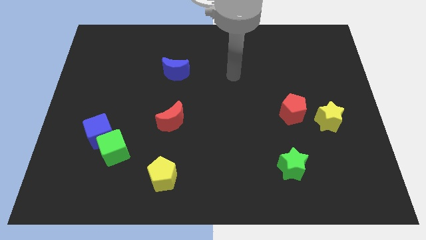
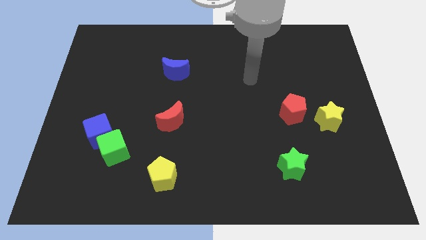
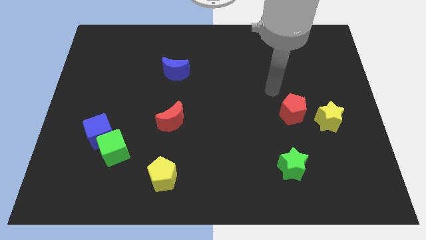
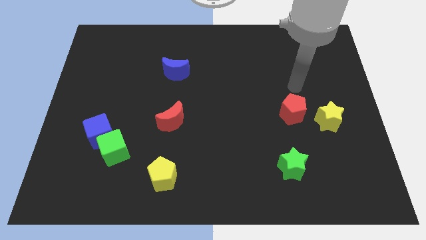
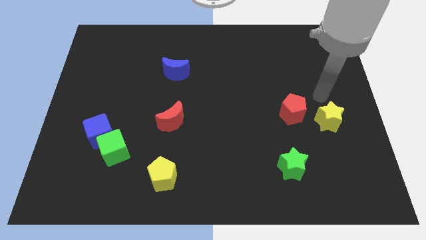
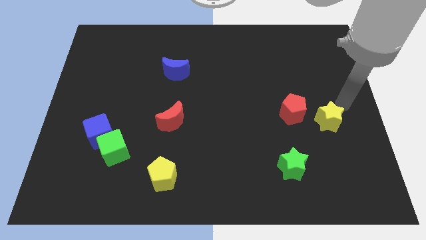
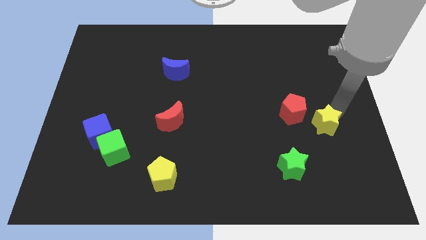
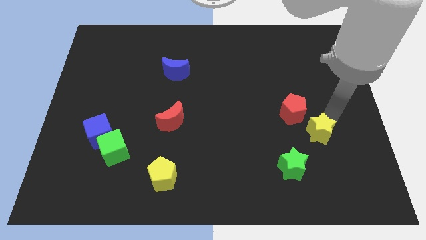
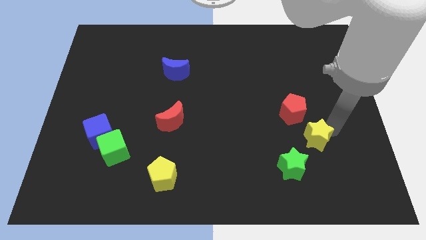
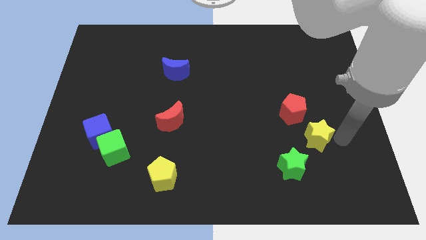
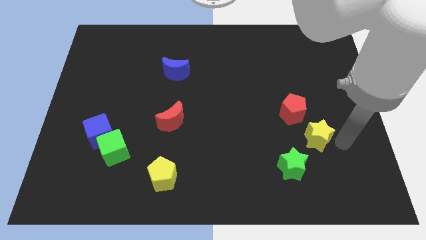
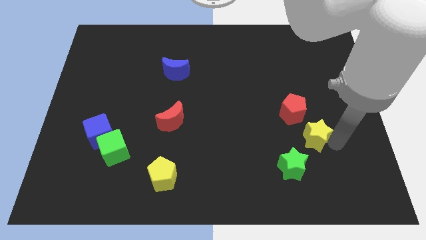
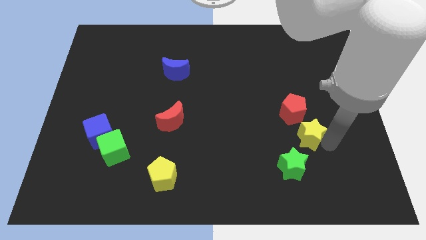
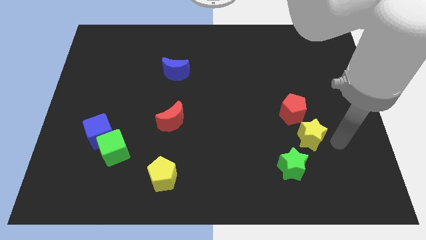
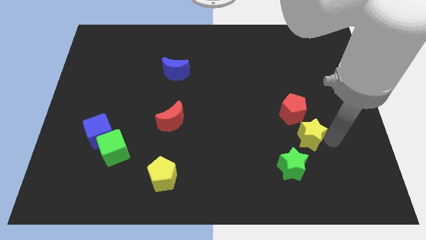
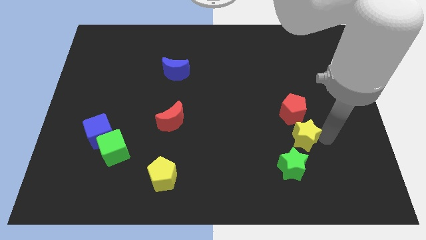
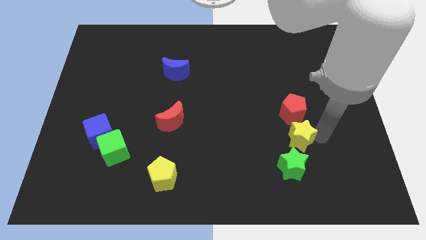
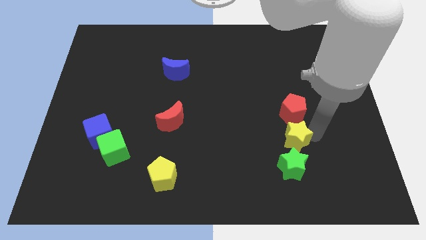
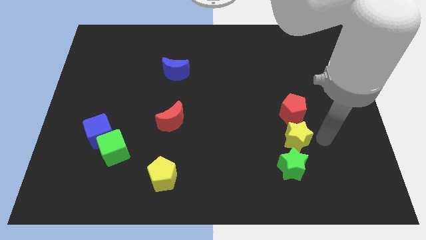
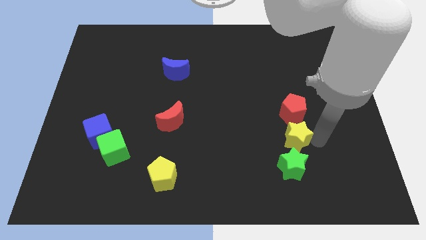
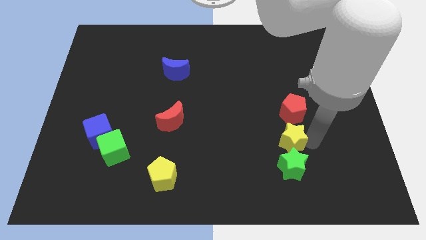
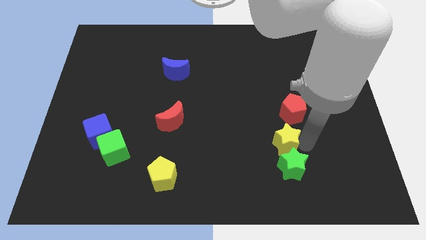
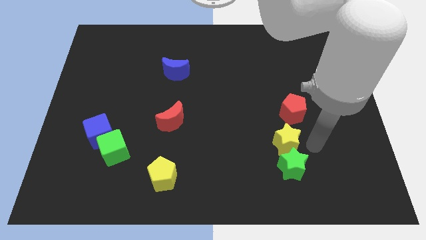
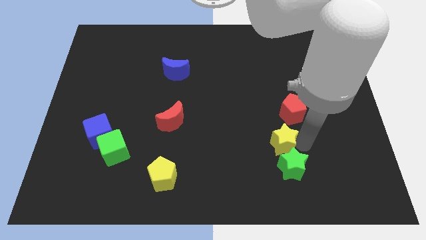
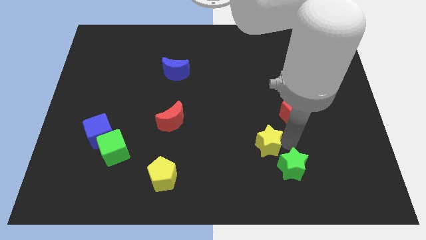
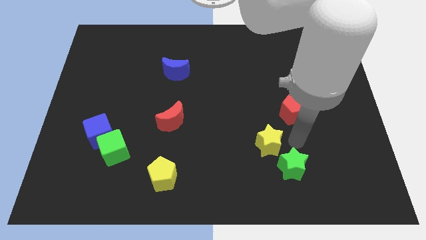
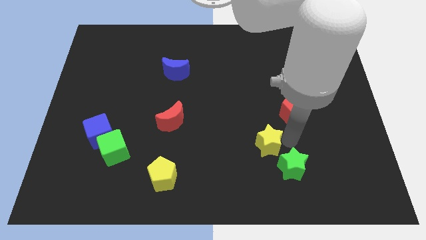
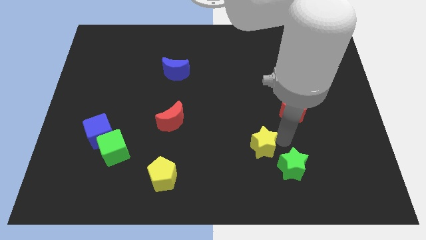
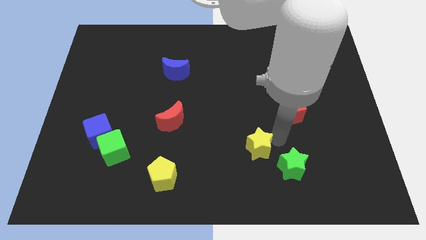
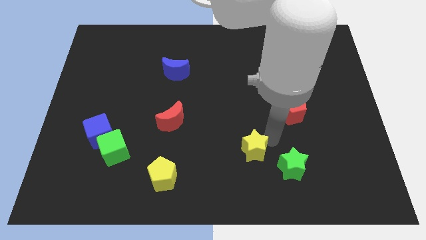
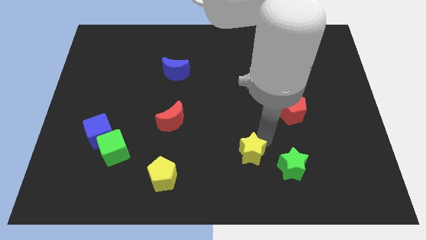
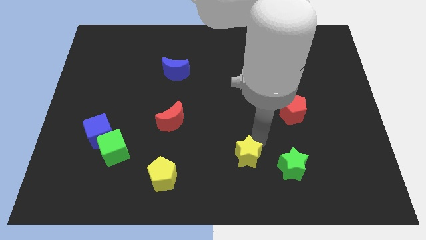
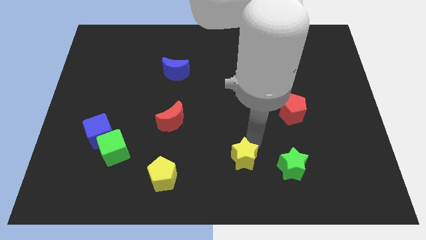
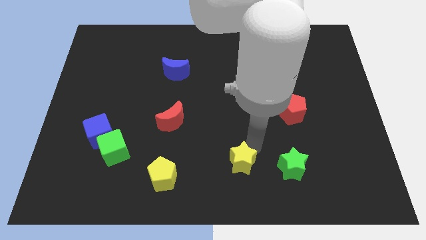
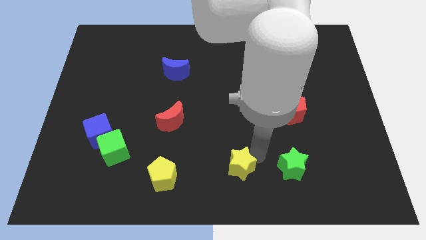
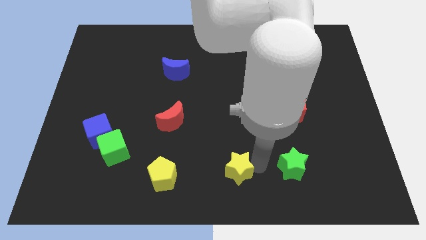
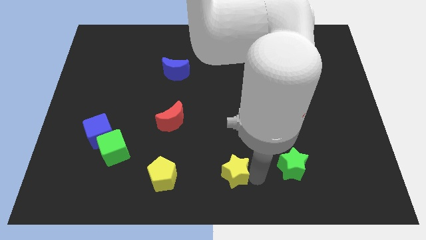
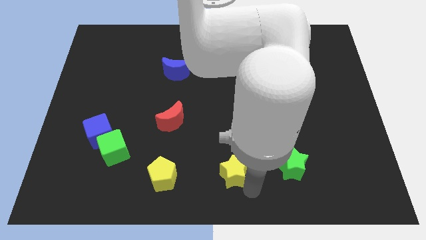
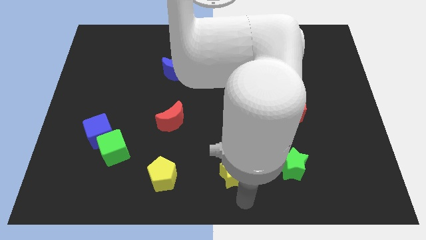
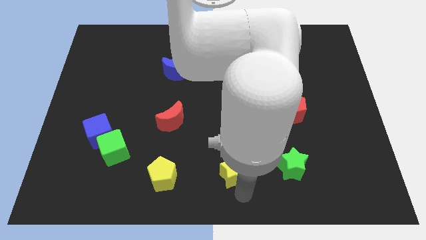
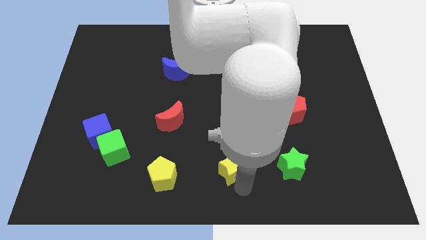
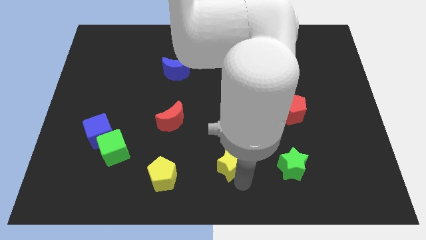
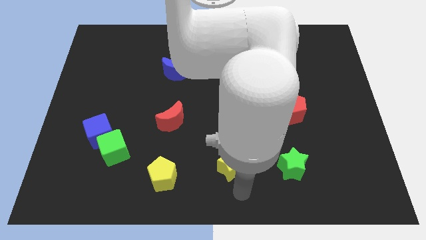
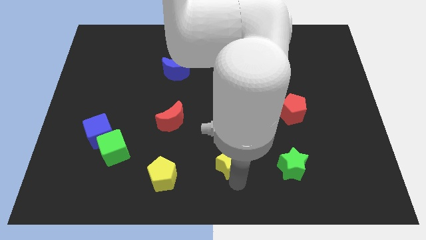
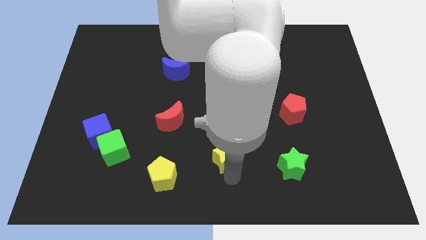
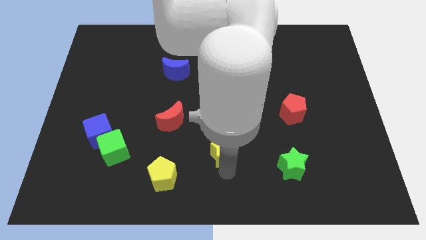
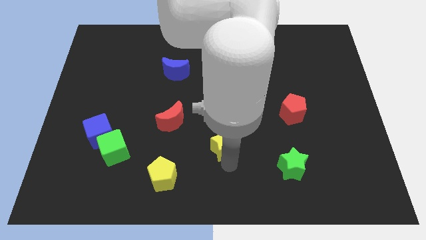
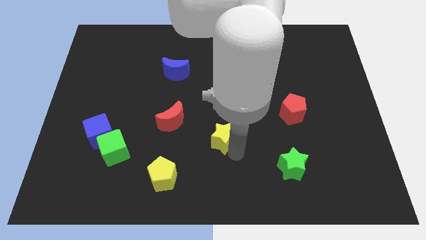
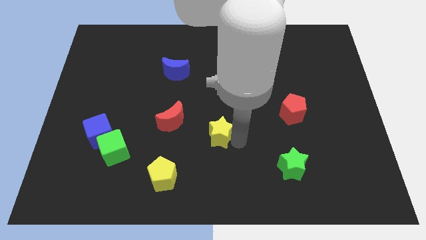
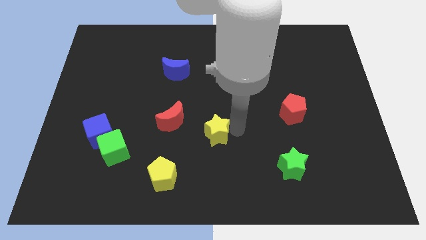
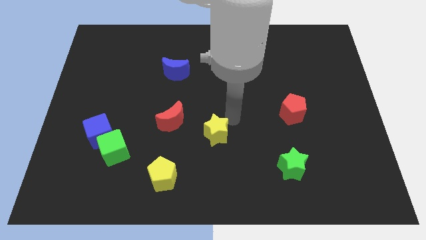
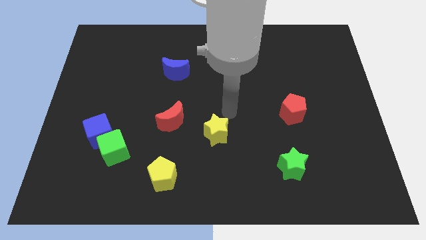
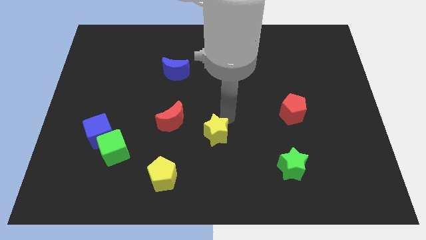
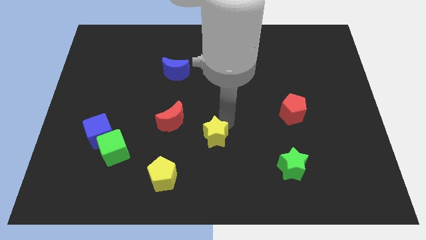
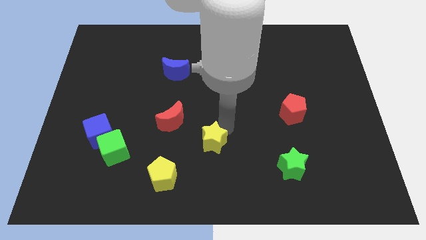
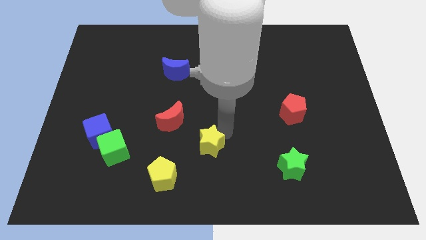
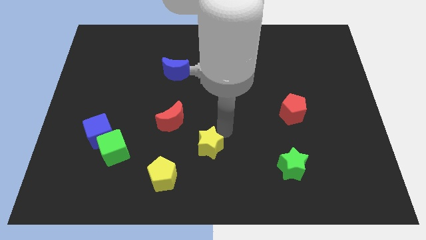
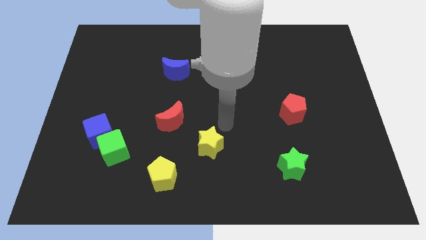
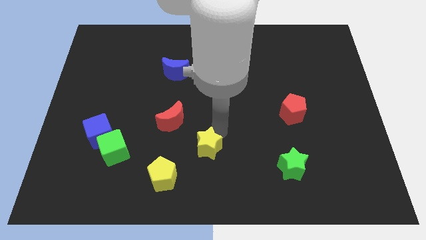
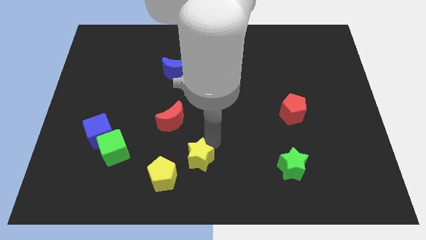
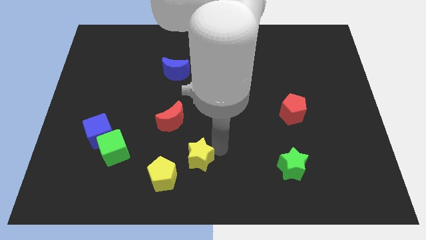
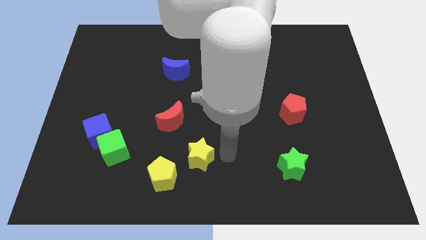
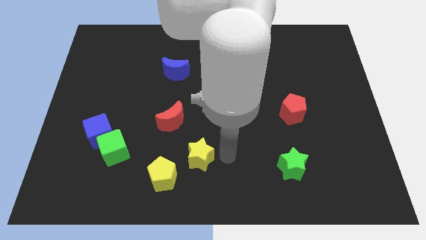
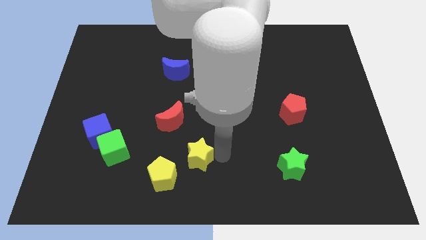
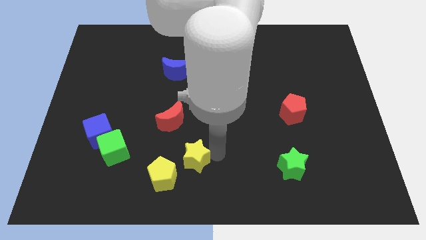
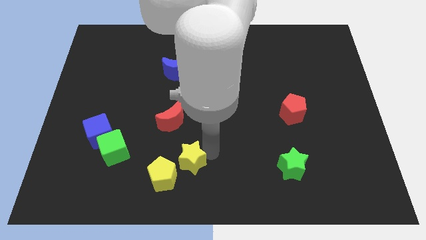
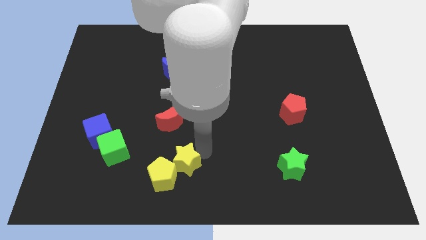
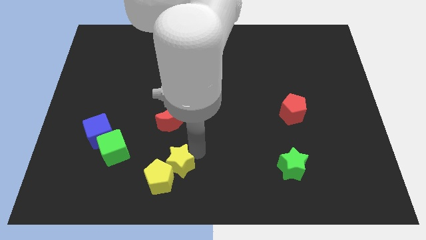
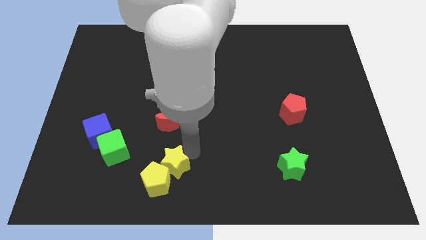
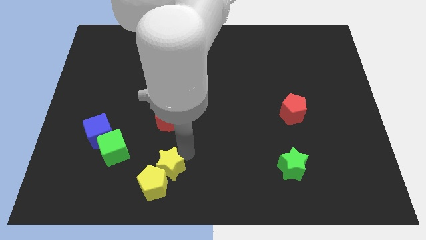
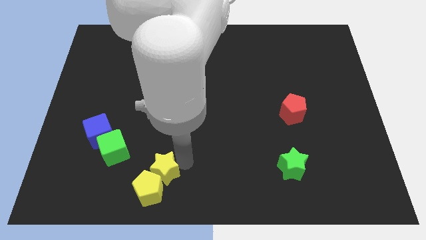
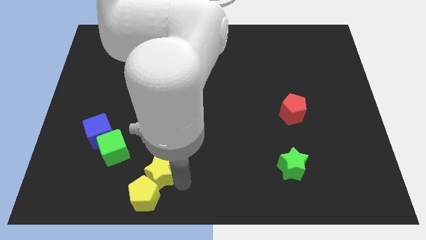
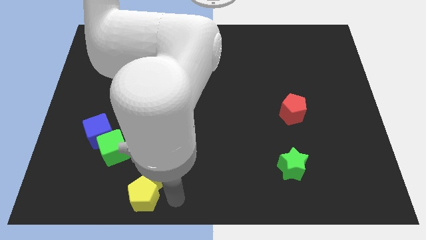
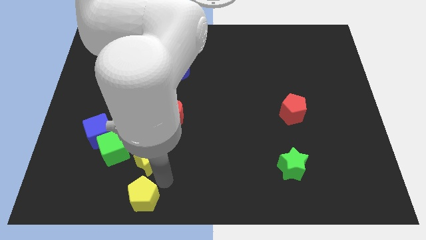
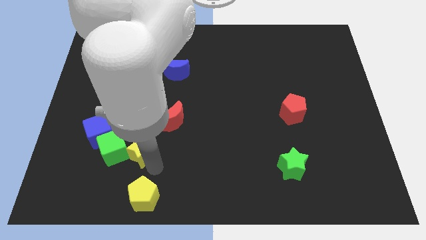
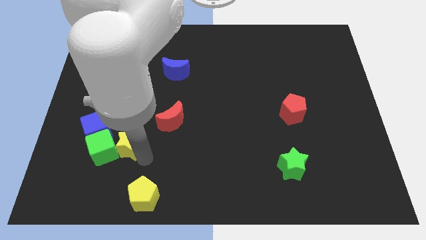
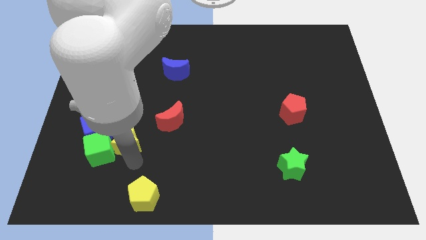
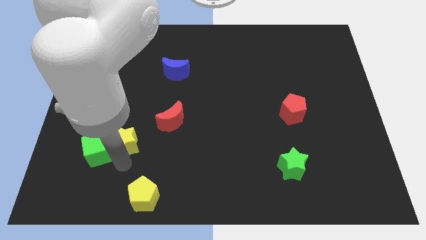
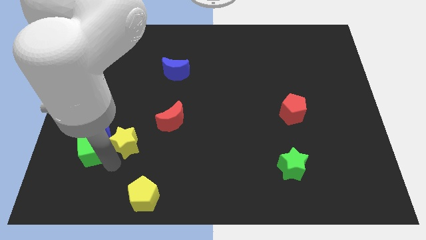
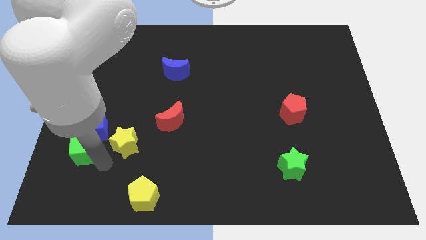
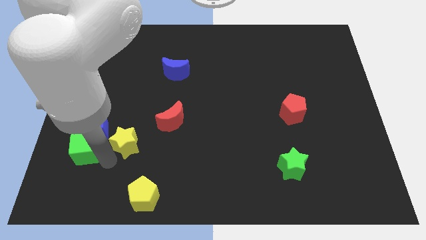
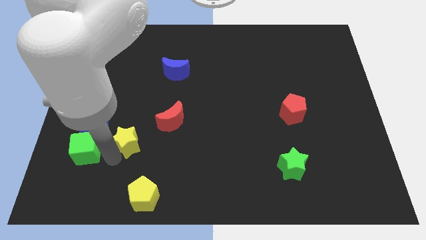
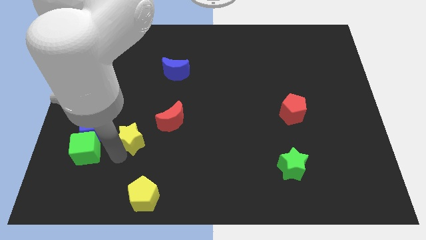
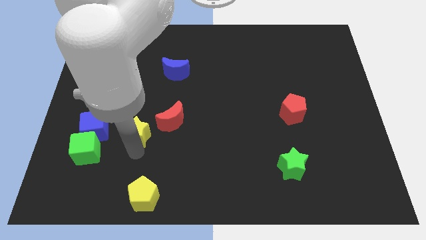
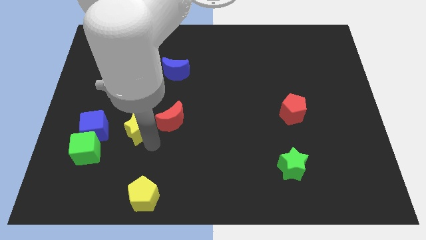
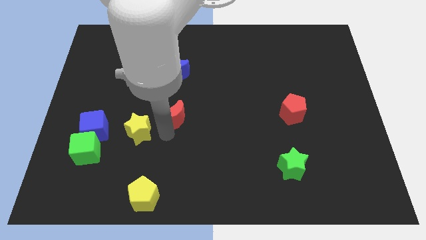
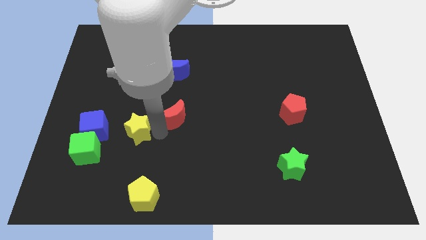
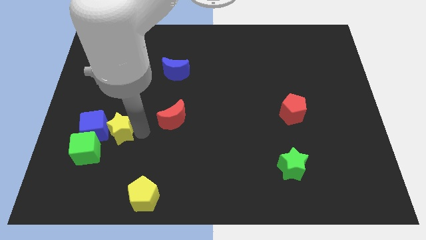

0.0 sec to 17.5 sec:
push the yellow star next to the blue cube
